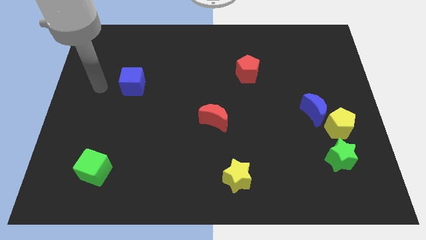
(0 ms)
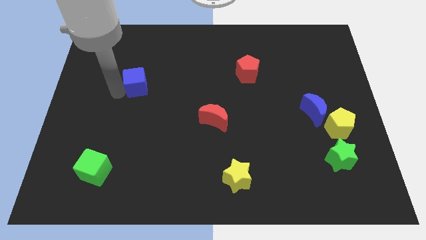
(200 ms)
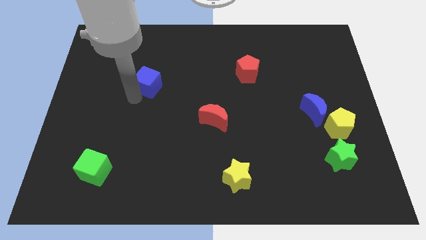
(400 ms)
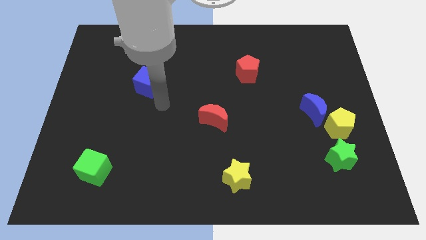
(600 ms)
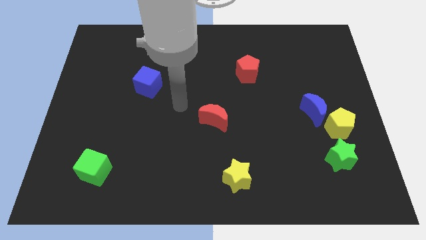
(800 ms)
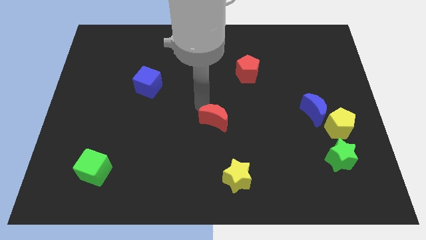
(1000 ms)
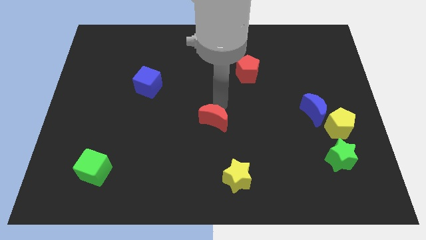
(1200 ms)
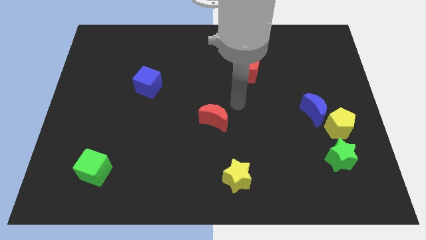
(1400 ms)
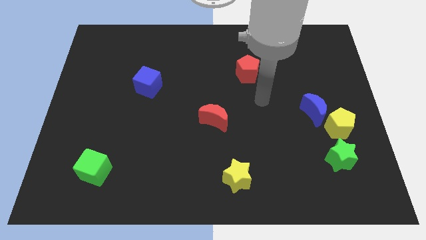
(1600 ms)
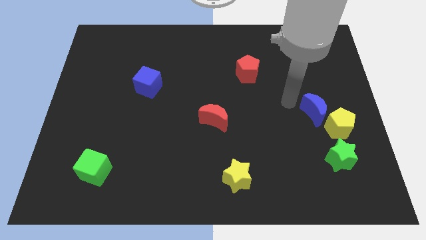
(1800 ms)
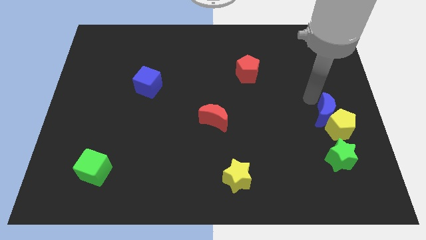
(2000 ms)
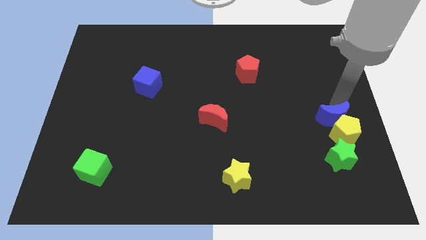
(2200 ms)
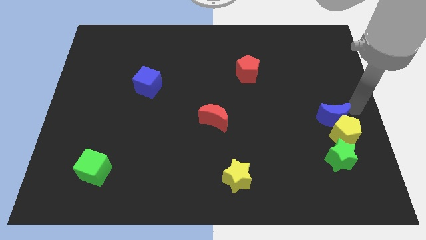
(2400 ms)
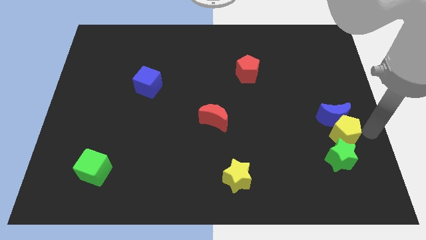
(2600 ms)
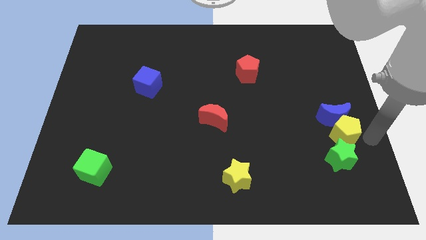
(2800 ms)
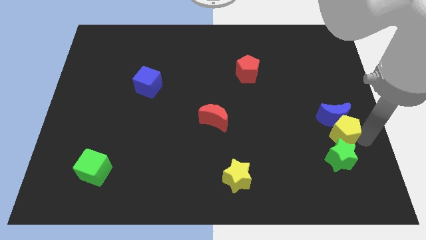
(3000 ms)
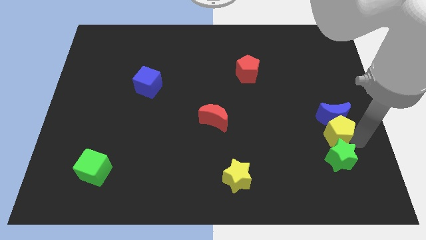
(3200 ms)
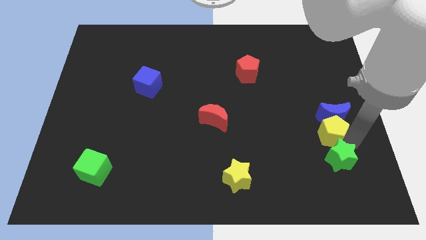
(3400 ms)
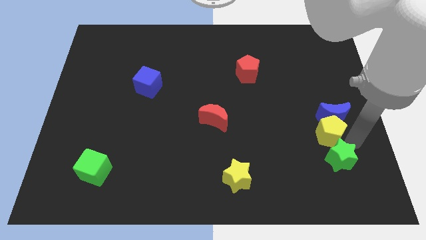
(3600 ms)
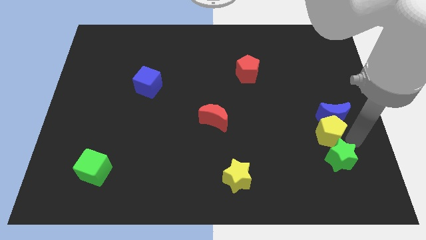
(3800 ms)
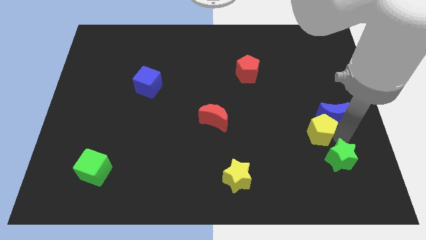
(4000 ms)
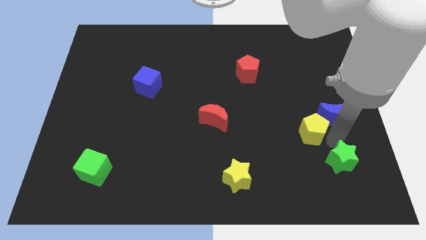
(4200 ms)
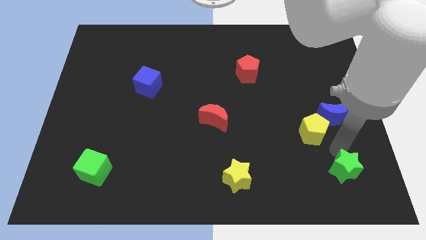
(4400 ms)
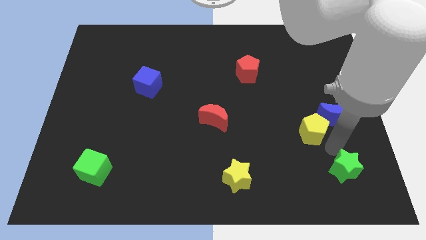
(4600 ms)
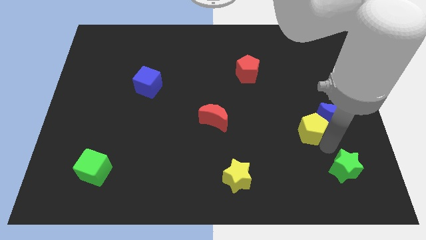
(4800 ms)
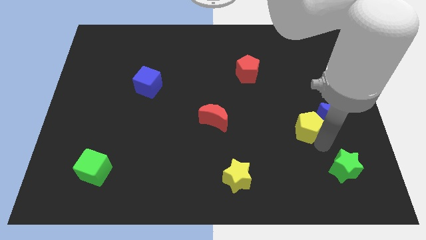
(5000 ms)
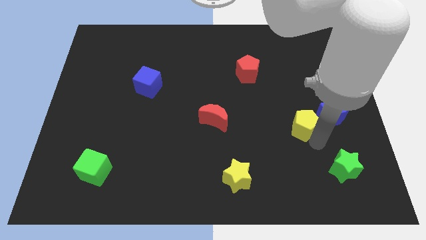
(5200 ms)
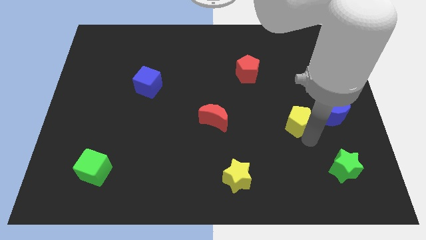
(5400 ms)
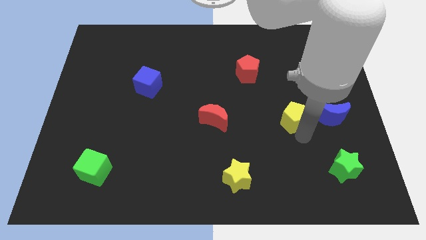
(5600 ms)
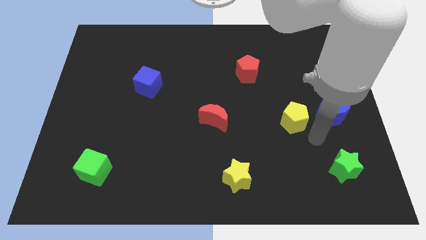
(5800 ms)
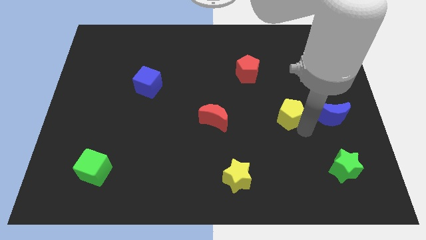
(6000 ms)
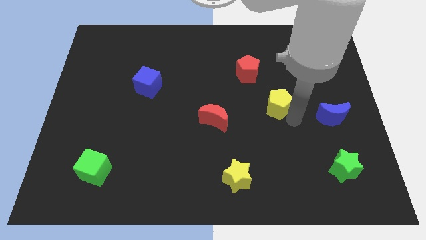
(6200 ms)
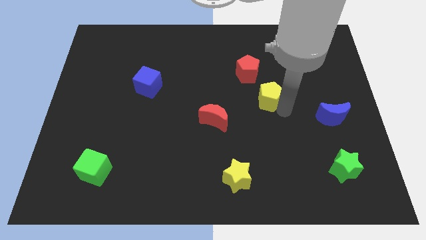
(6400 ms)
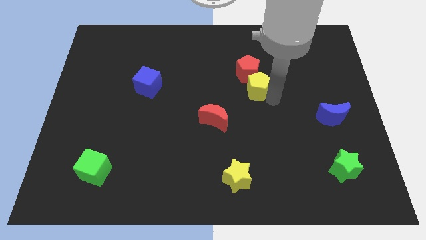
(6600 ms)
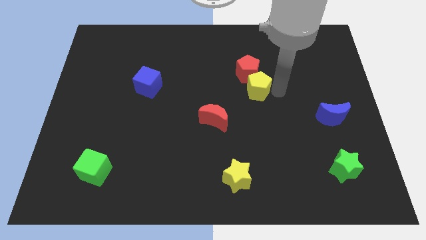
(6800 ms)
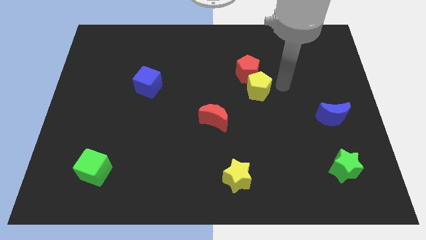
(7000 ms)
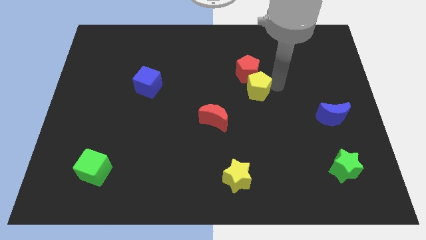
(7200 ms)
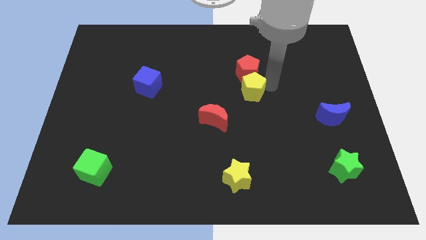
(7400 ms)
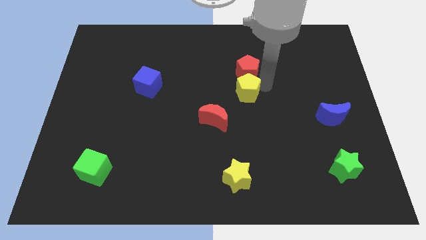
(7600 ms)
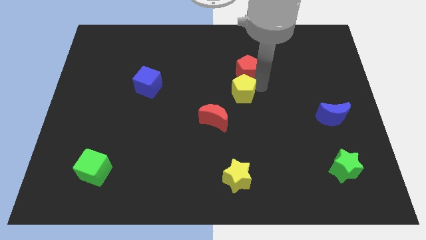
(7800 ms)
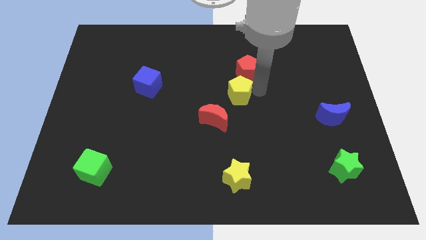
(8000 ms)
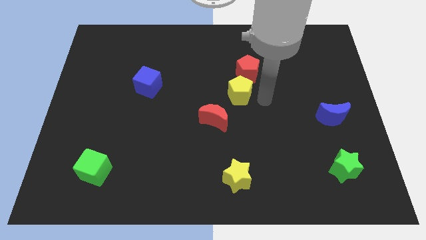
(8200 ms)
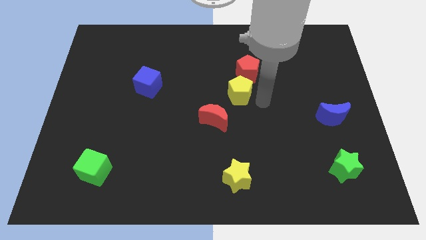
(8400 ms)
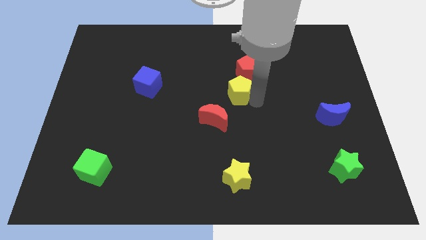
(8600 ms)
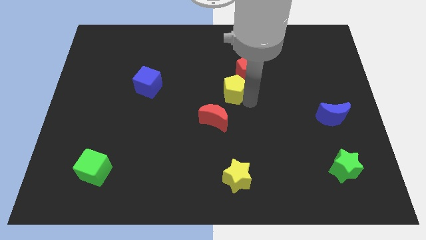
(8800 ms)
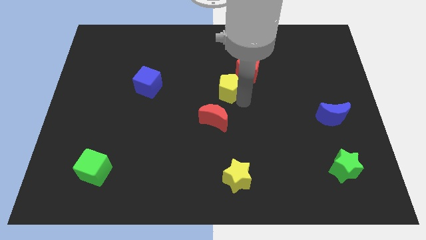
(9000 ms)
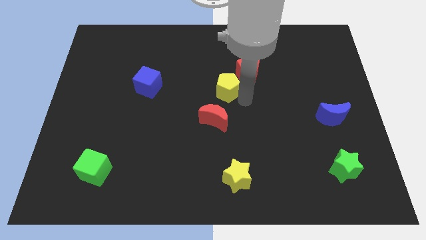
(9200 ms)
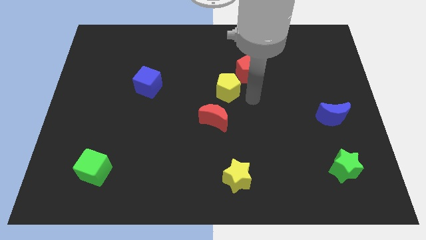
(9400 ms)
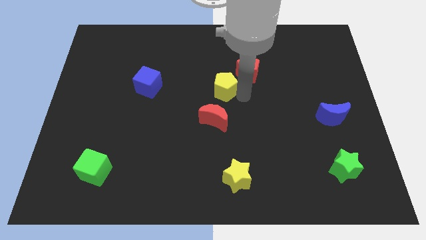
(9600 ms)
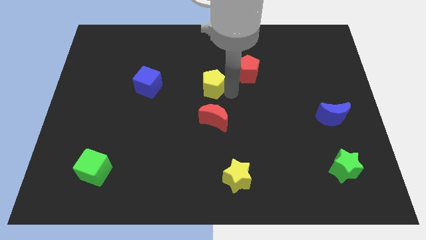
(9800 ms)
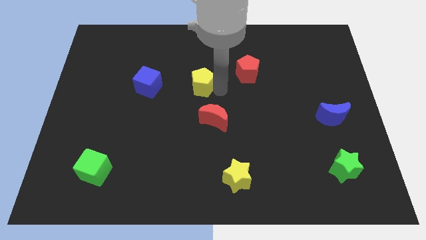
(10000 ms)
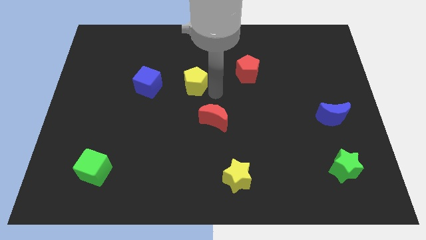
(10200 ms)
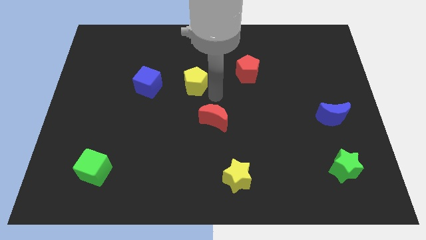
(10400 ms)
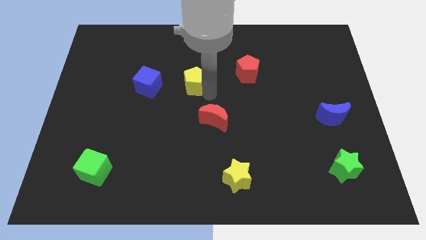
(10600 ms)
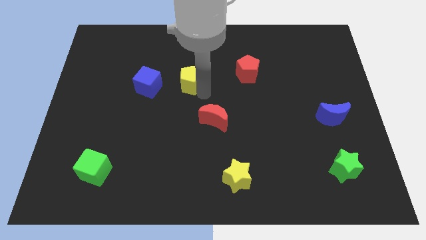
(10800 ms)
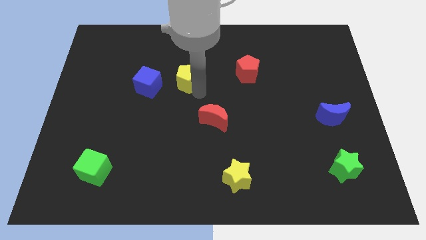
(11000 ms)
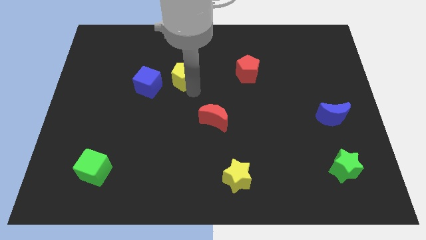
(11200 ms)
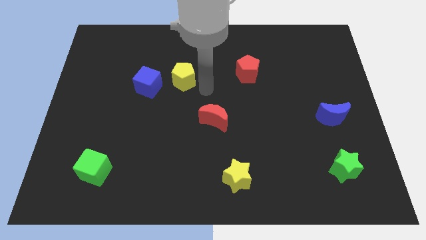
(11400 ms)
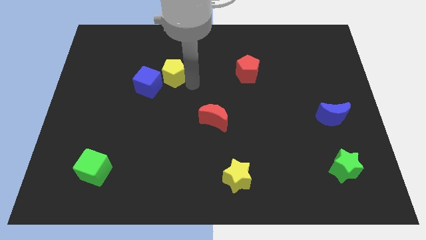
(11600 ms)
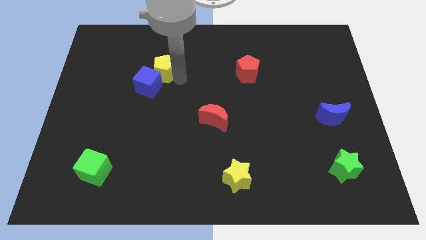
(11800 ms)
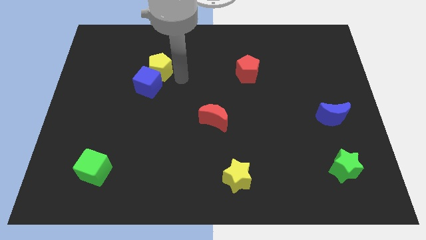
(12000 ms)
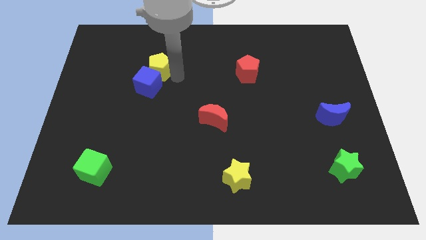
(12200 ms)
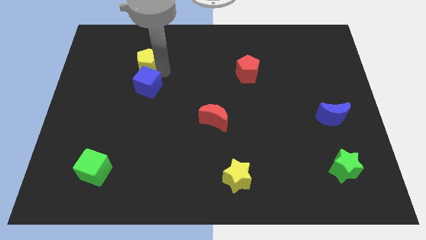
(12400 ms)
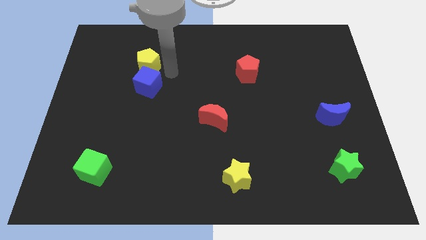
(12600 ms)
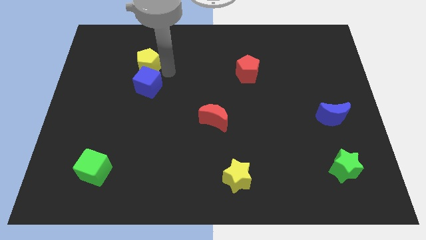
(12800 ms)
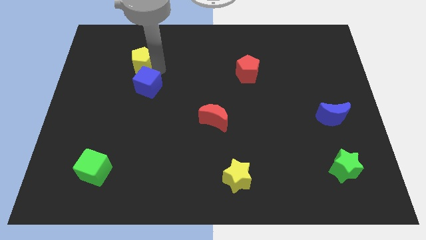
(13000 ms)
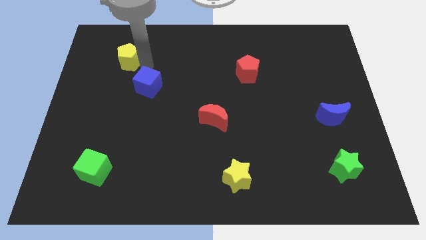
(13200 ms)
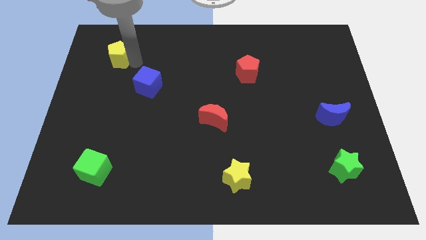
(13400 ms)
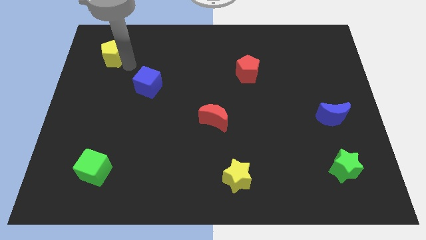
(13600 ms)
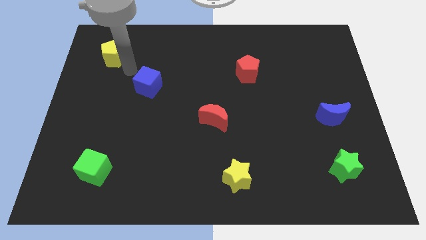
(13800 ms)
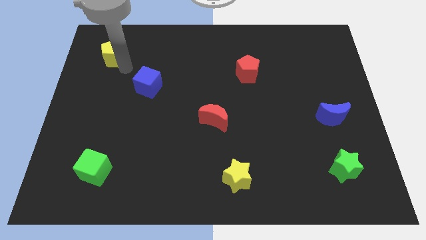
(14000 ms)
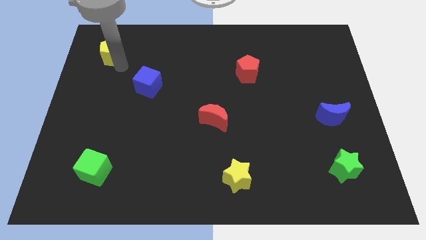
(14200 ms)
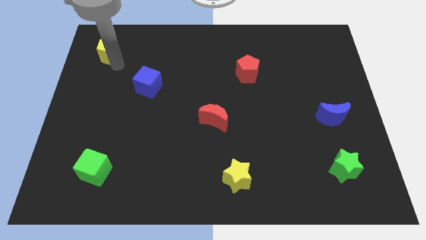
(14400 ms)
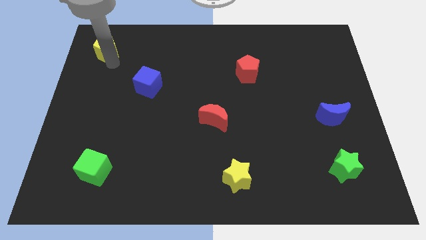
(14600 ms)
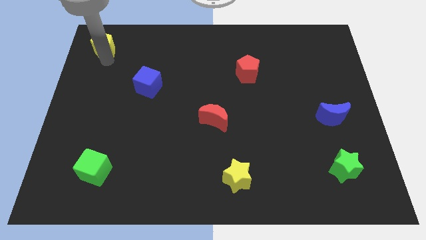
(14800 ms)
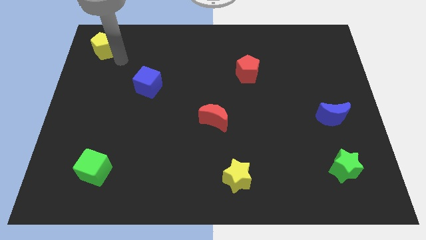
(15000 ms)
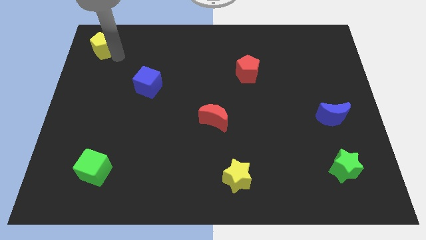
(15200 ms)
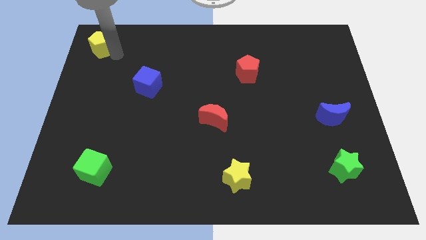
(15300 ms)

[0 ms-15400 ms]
slide the yellow pentagon to the top left of the board

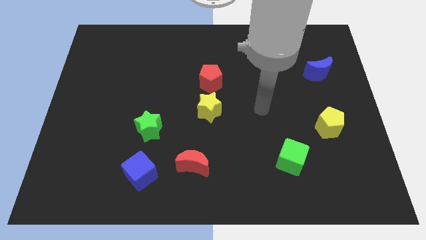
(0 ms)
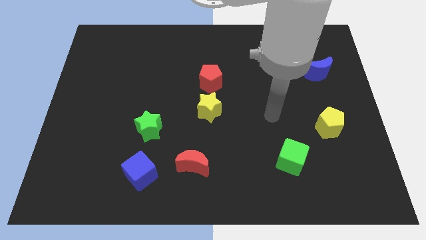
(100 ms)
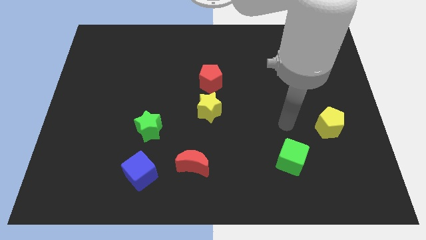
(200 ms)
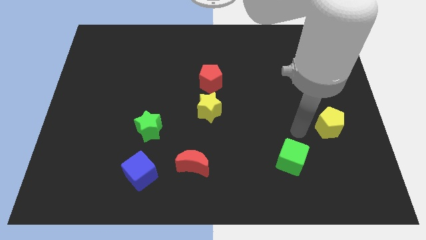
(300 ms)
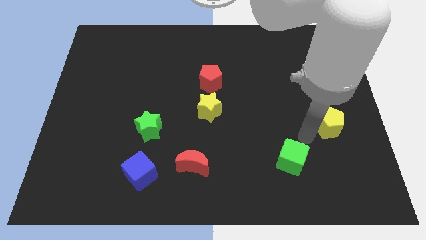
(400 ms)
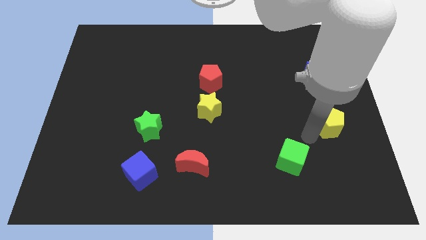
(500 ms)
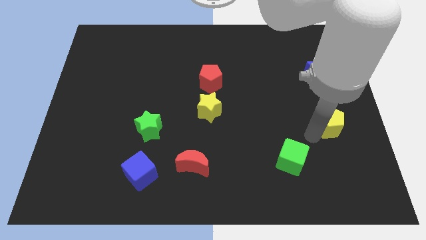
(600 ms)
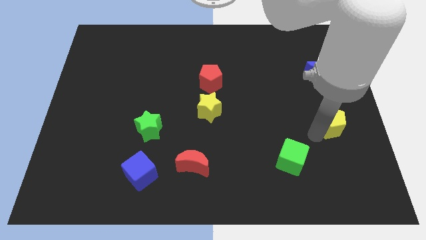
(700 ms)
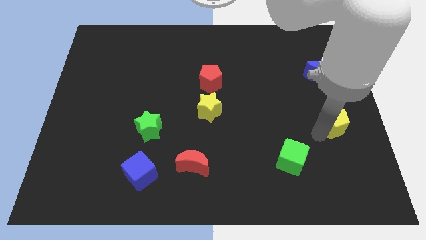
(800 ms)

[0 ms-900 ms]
push the yellow pentagon to the center right
